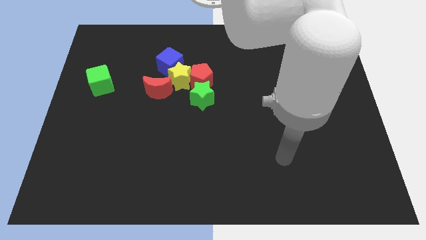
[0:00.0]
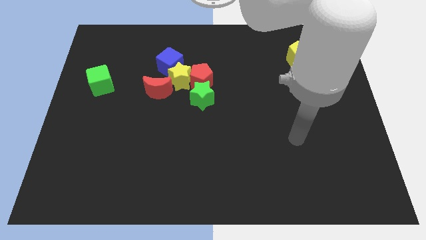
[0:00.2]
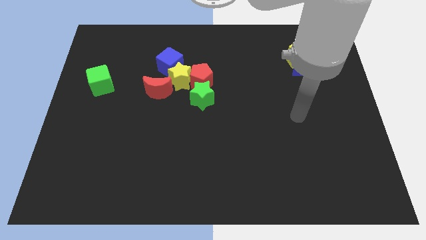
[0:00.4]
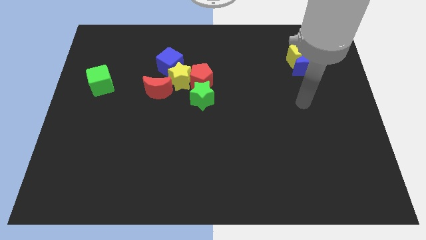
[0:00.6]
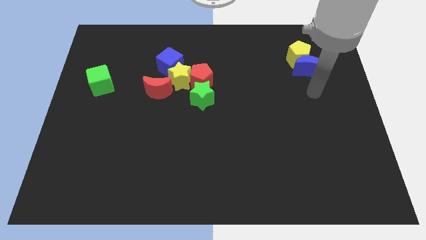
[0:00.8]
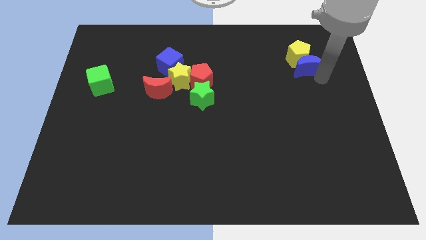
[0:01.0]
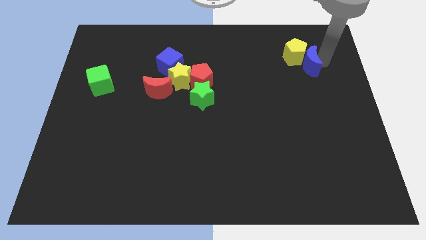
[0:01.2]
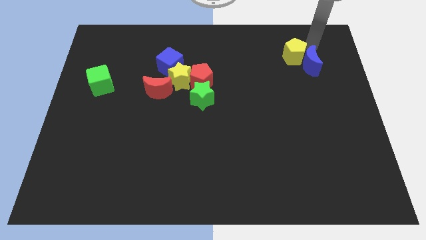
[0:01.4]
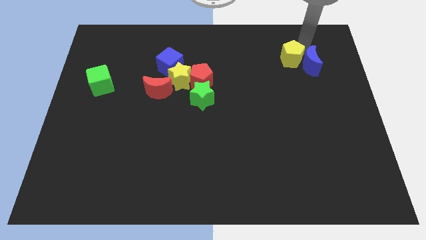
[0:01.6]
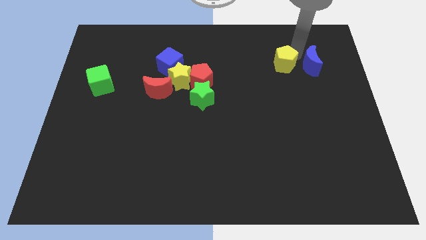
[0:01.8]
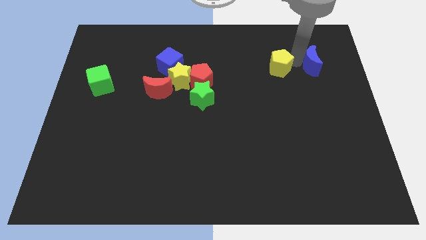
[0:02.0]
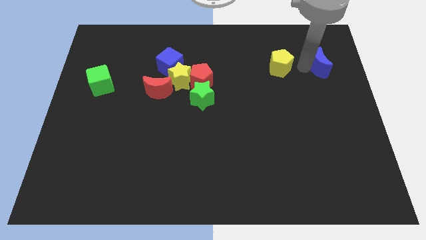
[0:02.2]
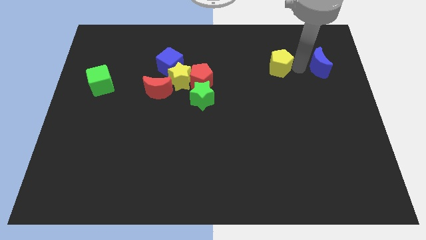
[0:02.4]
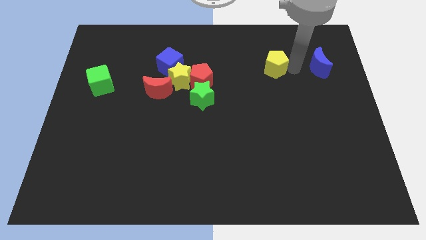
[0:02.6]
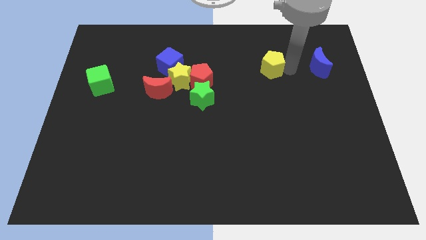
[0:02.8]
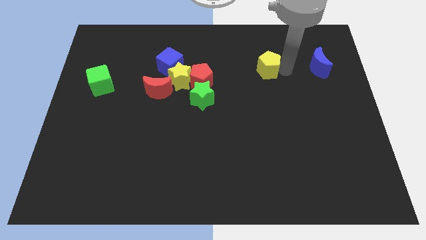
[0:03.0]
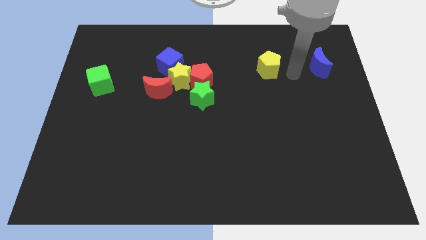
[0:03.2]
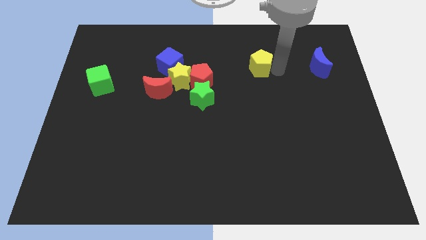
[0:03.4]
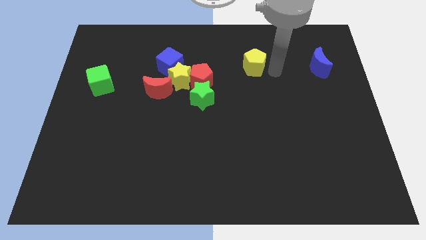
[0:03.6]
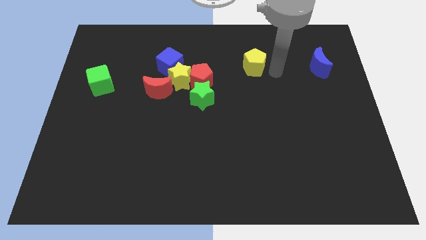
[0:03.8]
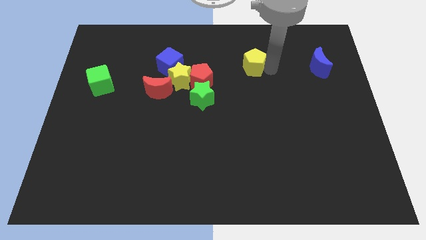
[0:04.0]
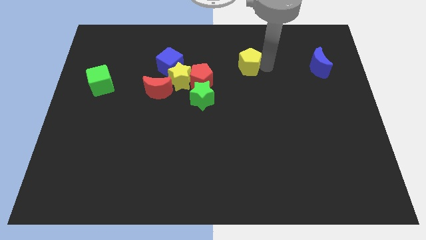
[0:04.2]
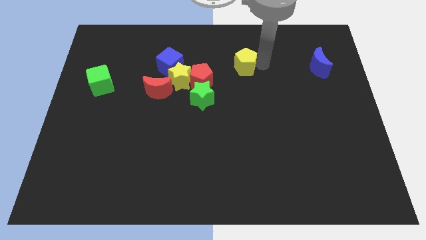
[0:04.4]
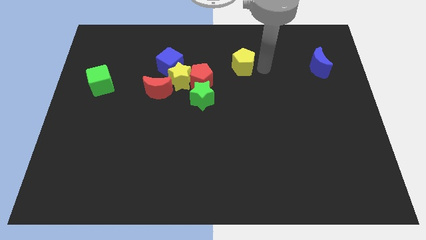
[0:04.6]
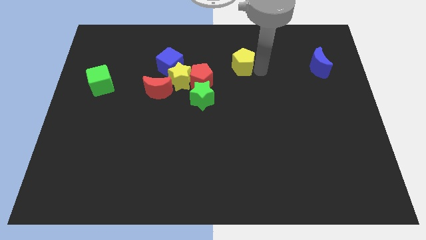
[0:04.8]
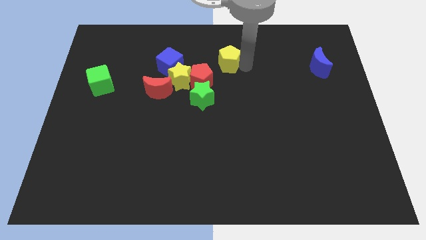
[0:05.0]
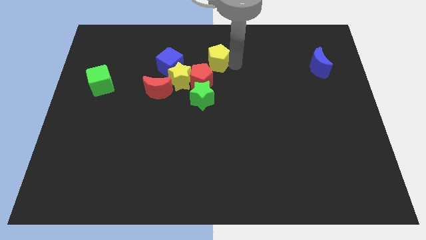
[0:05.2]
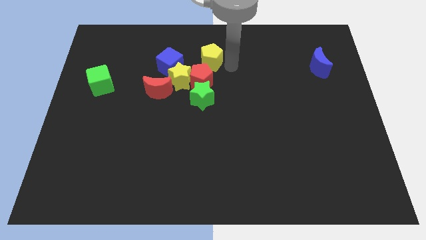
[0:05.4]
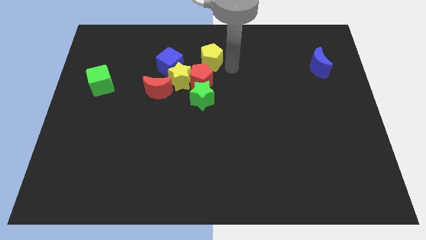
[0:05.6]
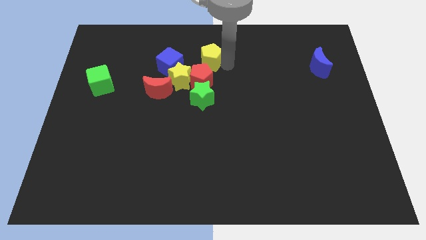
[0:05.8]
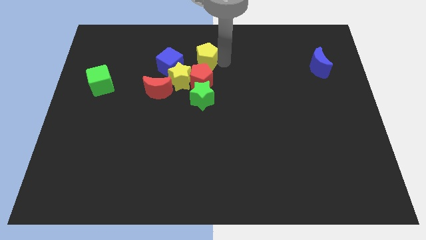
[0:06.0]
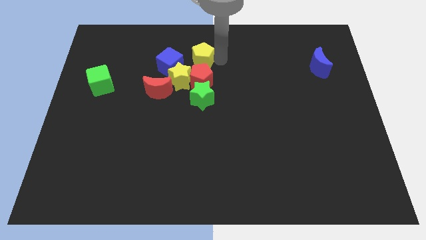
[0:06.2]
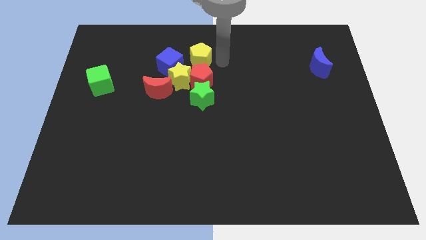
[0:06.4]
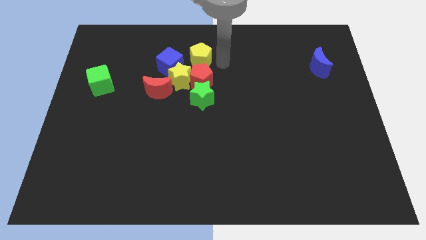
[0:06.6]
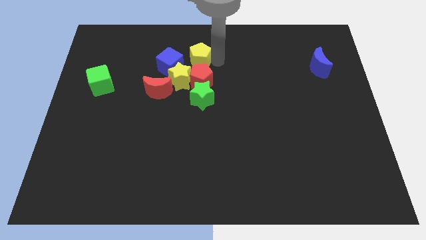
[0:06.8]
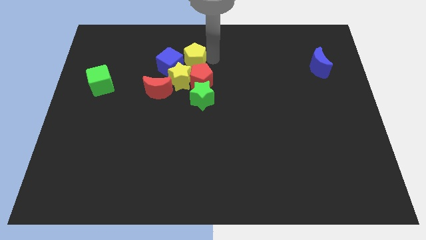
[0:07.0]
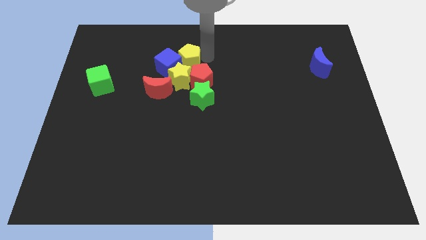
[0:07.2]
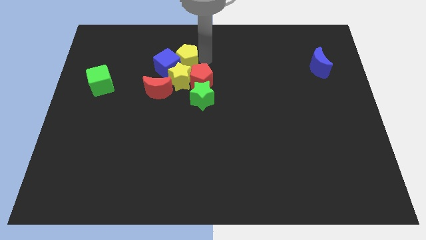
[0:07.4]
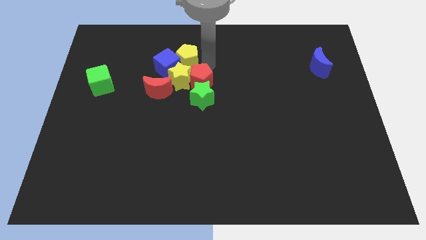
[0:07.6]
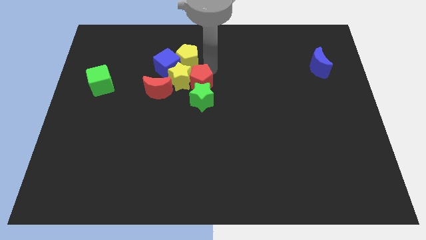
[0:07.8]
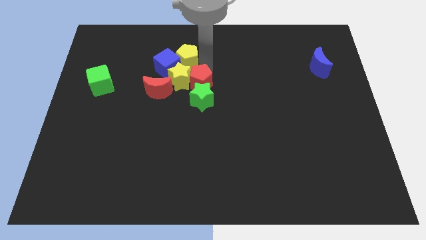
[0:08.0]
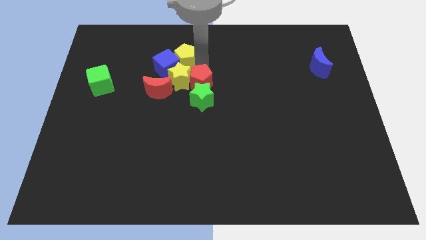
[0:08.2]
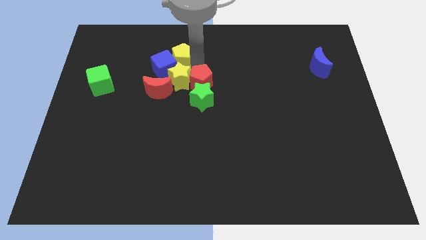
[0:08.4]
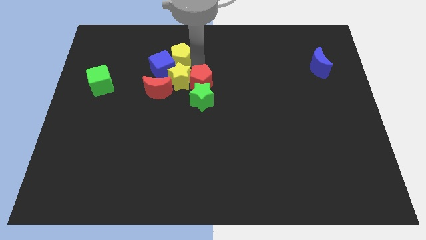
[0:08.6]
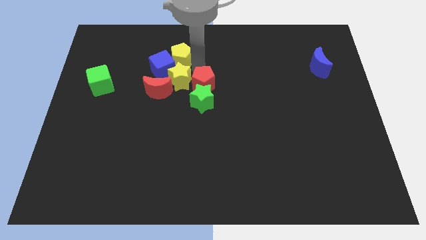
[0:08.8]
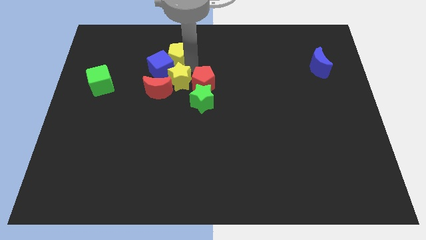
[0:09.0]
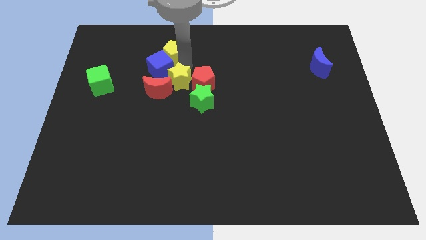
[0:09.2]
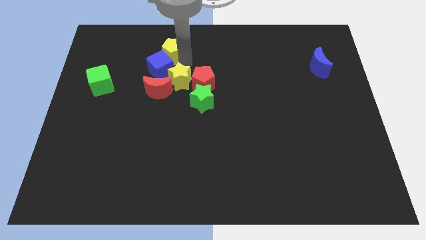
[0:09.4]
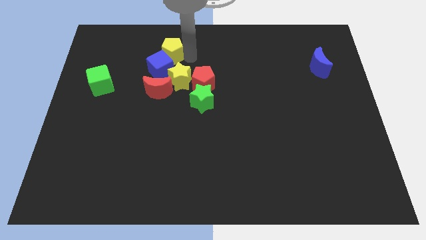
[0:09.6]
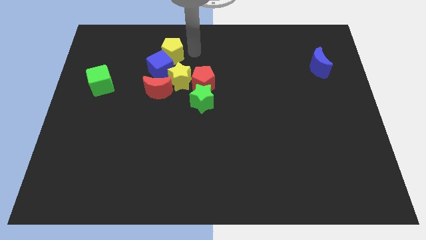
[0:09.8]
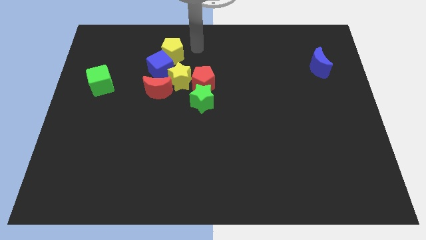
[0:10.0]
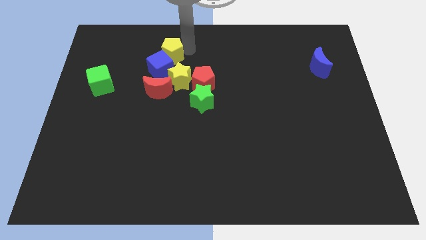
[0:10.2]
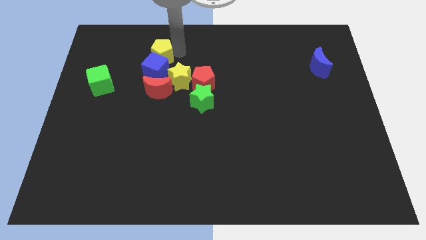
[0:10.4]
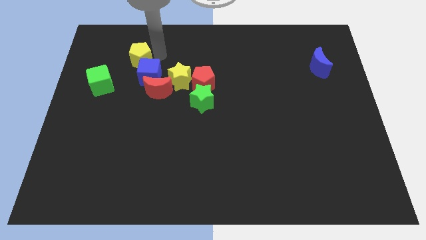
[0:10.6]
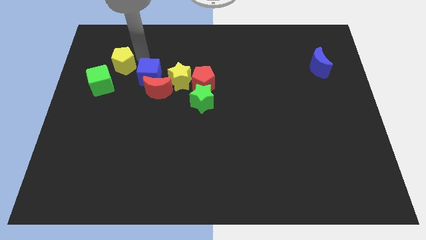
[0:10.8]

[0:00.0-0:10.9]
slide the yellow pentagon left of the blue cube

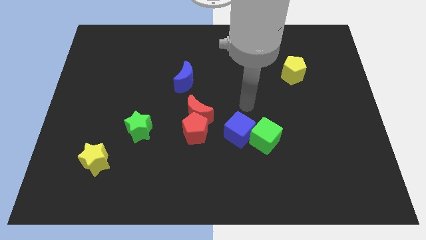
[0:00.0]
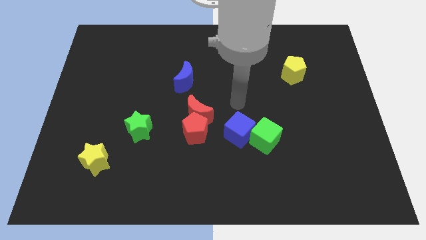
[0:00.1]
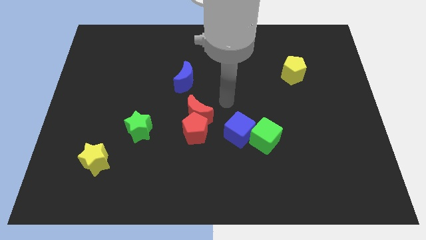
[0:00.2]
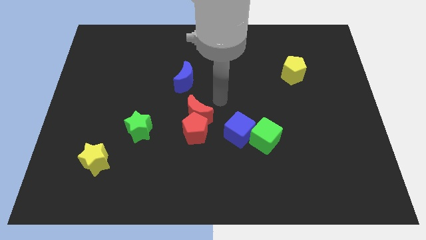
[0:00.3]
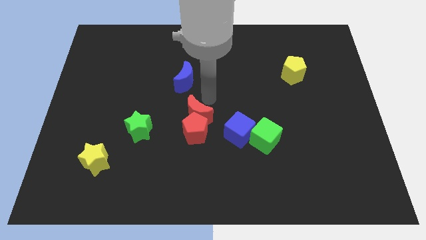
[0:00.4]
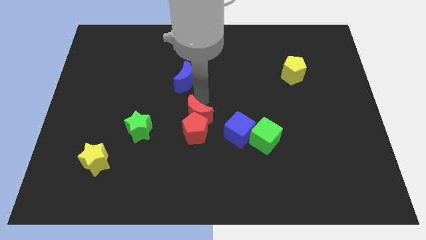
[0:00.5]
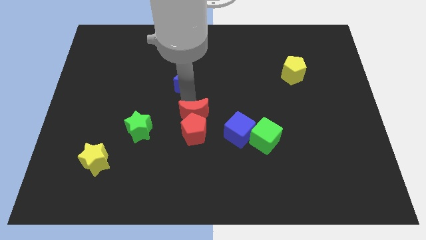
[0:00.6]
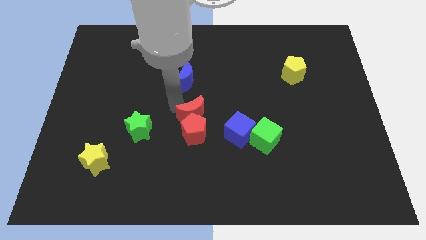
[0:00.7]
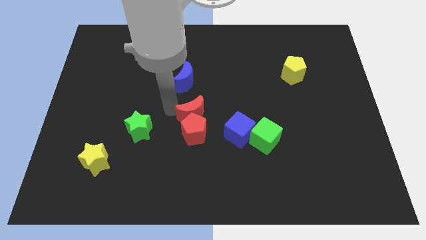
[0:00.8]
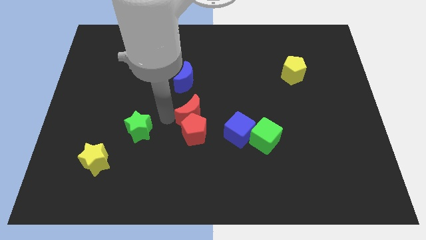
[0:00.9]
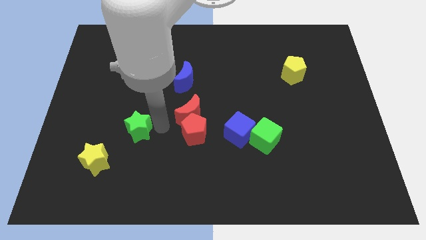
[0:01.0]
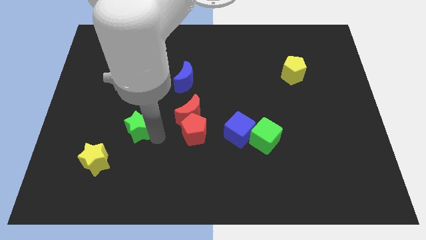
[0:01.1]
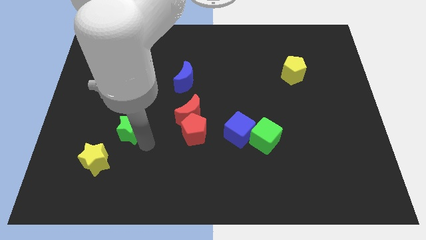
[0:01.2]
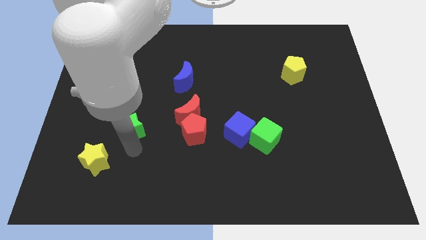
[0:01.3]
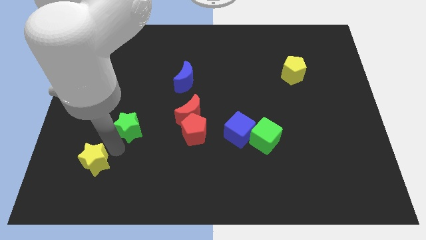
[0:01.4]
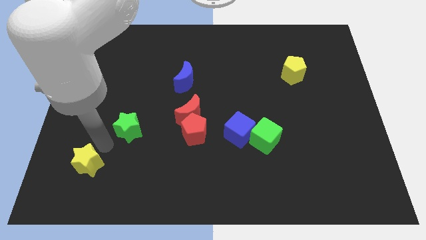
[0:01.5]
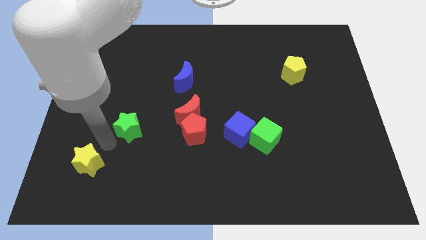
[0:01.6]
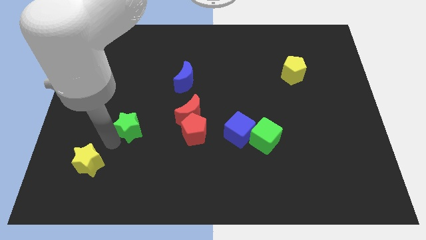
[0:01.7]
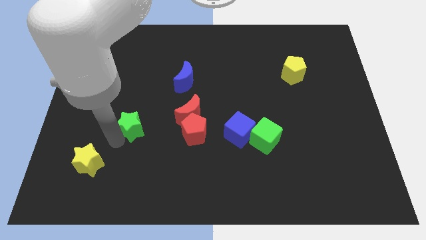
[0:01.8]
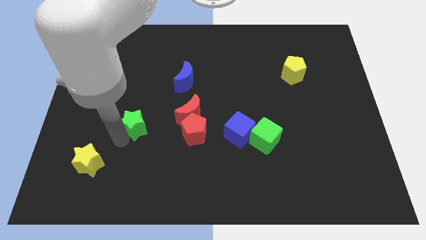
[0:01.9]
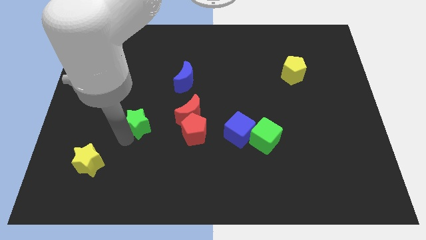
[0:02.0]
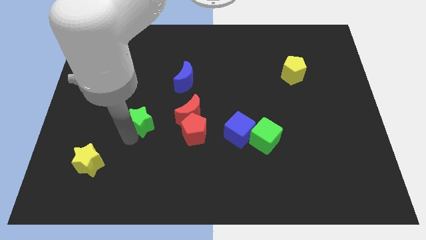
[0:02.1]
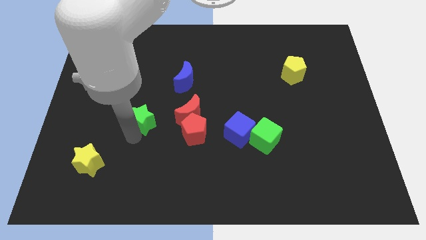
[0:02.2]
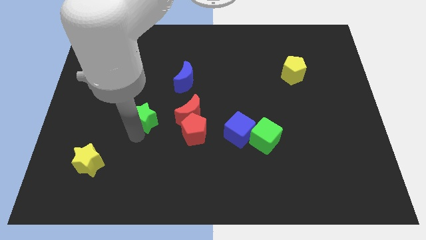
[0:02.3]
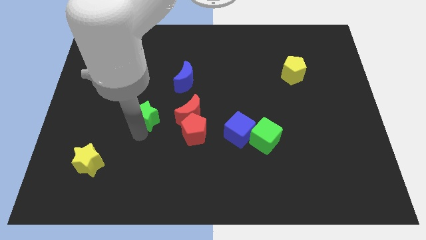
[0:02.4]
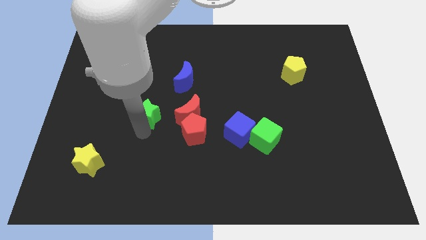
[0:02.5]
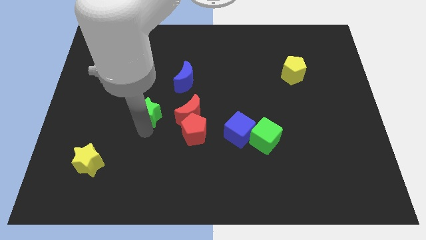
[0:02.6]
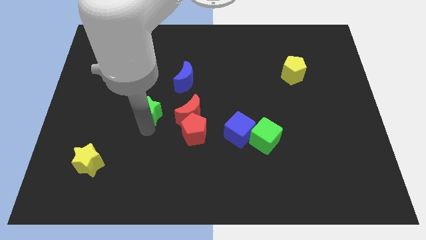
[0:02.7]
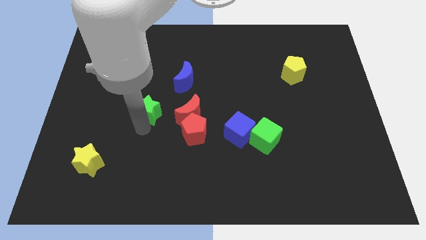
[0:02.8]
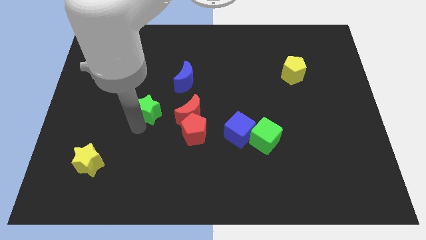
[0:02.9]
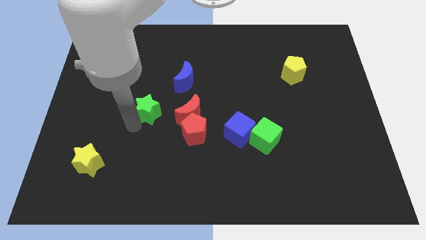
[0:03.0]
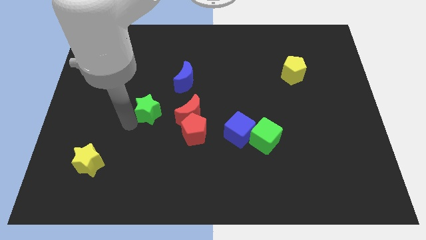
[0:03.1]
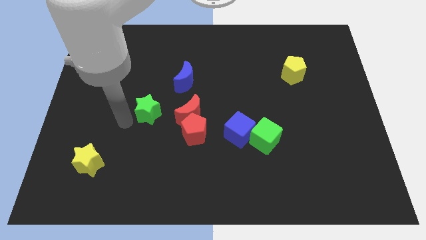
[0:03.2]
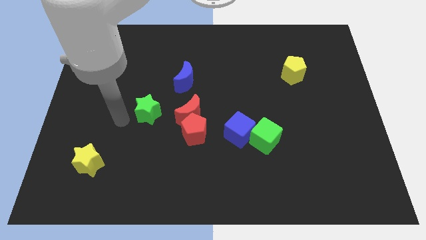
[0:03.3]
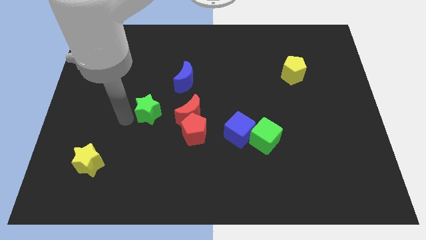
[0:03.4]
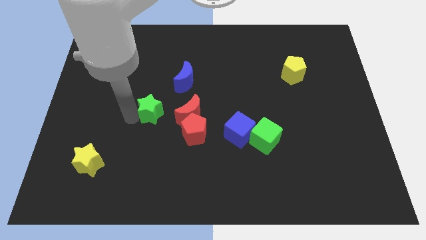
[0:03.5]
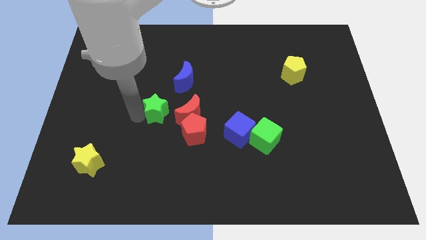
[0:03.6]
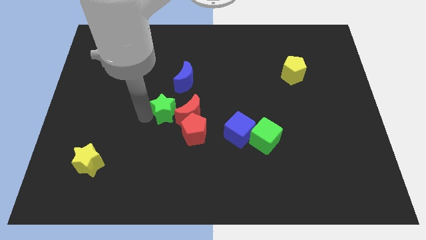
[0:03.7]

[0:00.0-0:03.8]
slide the green star to the top left of the red moon
